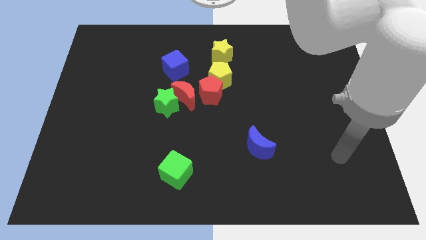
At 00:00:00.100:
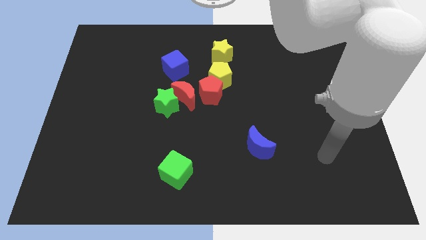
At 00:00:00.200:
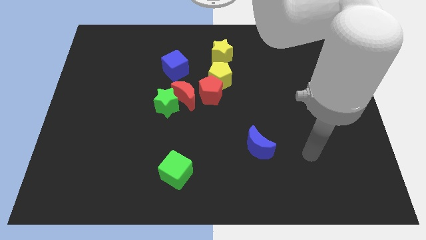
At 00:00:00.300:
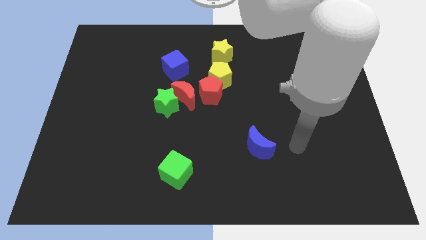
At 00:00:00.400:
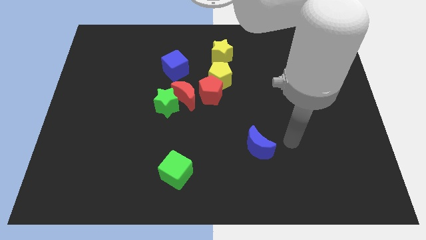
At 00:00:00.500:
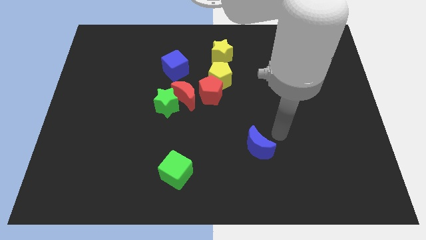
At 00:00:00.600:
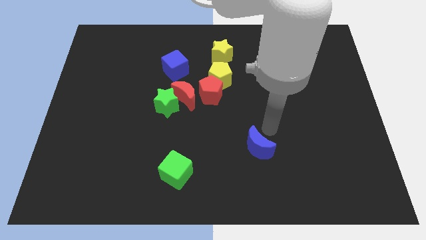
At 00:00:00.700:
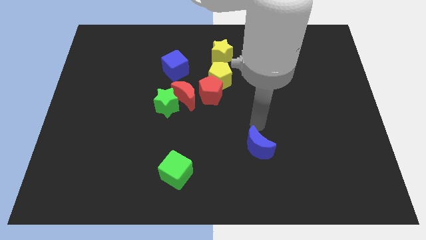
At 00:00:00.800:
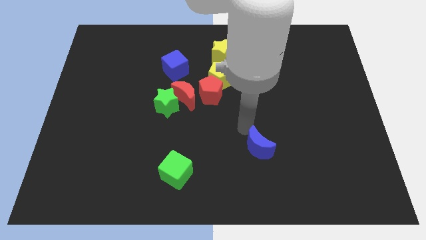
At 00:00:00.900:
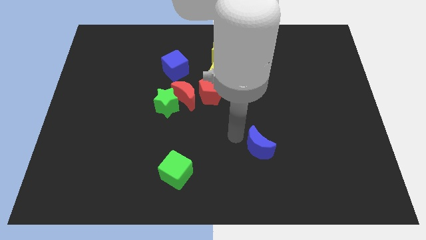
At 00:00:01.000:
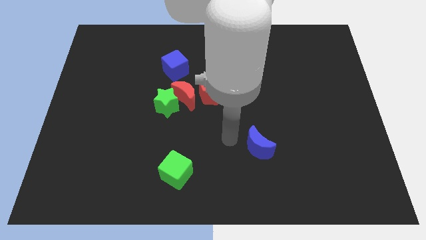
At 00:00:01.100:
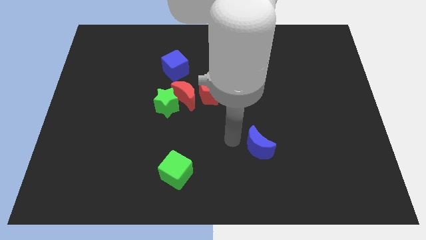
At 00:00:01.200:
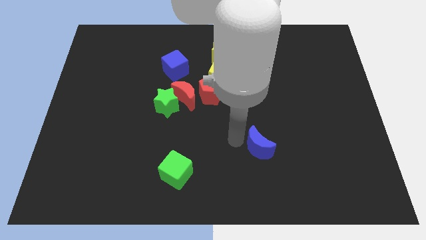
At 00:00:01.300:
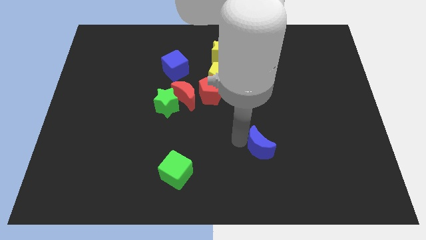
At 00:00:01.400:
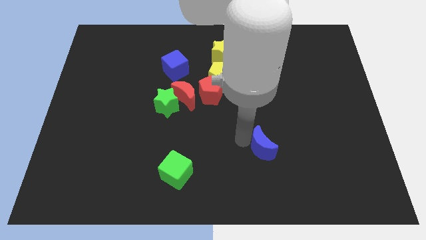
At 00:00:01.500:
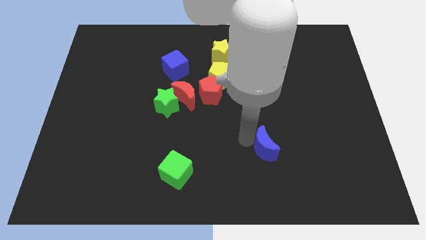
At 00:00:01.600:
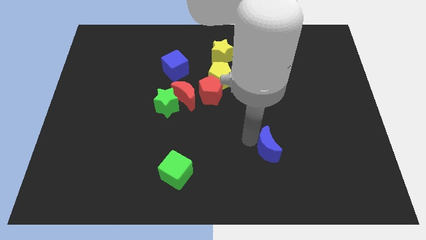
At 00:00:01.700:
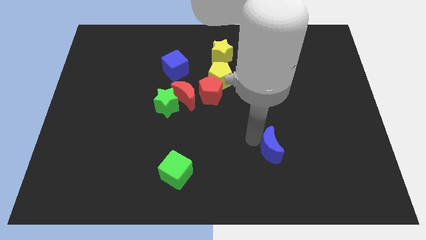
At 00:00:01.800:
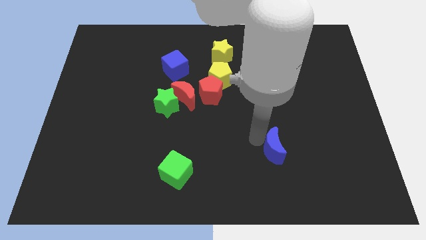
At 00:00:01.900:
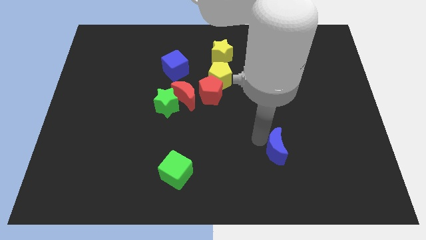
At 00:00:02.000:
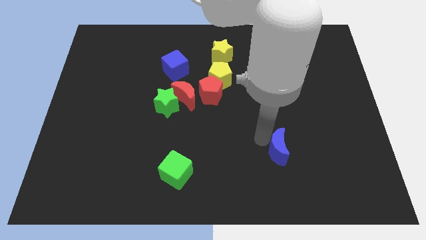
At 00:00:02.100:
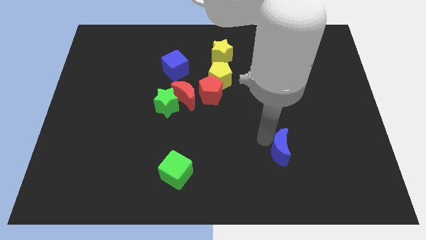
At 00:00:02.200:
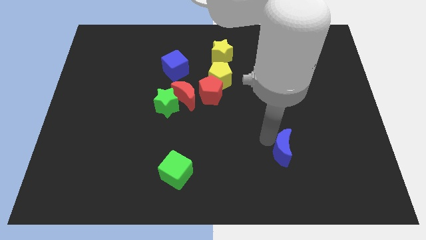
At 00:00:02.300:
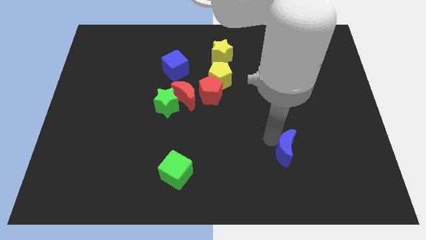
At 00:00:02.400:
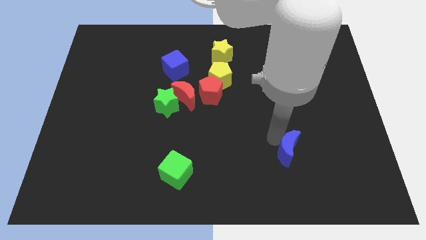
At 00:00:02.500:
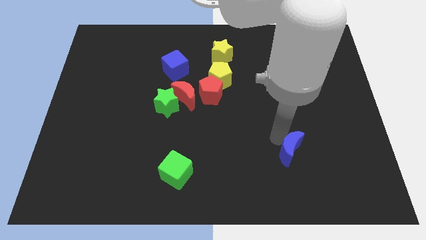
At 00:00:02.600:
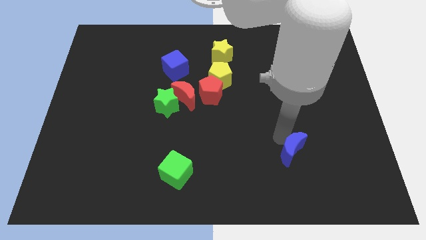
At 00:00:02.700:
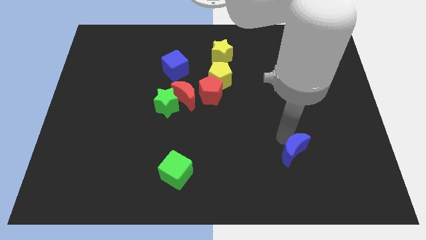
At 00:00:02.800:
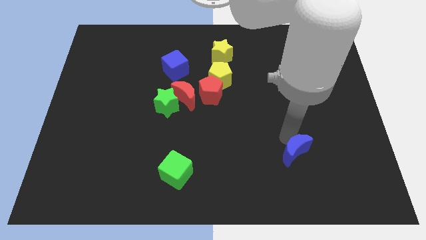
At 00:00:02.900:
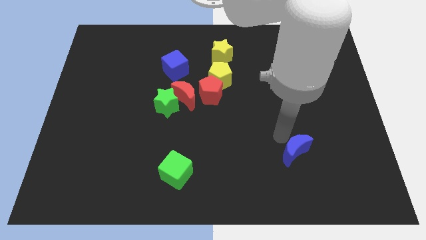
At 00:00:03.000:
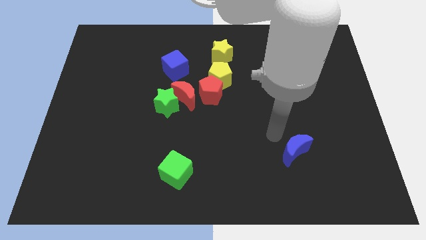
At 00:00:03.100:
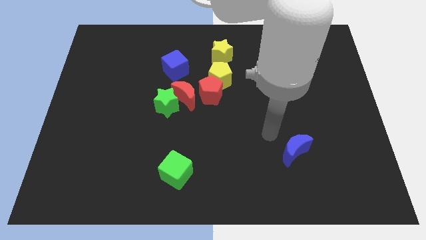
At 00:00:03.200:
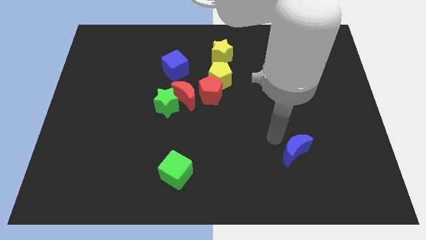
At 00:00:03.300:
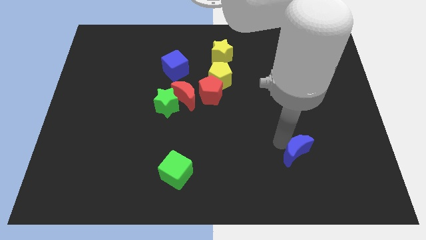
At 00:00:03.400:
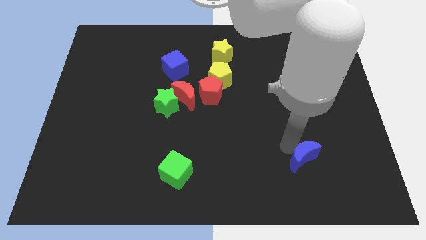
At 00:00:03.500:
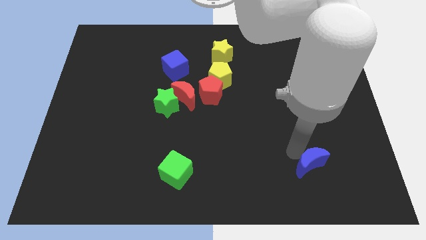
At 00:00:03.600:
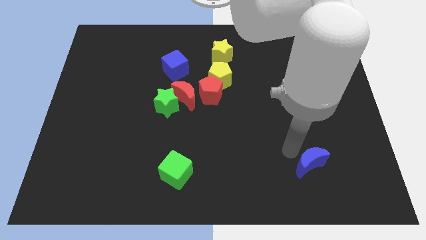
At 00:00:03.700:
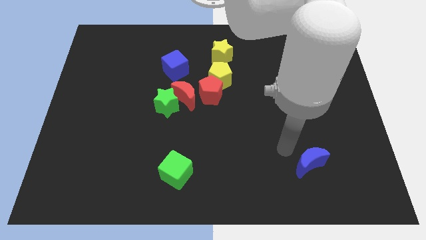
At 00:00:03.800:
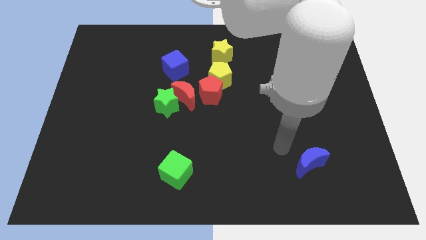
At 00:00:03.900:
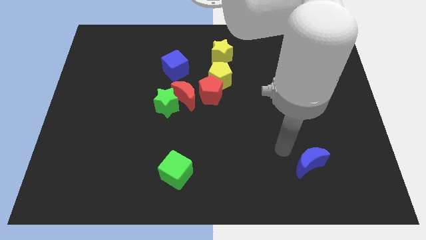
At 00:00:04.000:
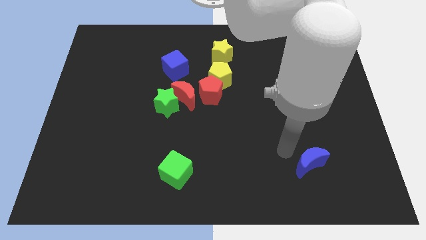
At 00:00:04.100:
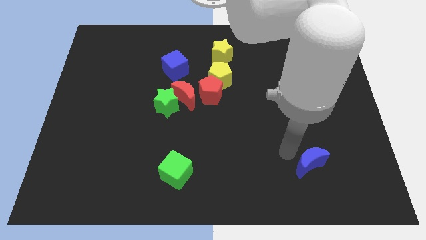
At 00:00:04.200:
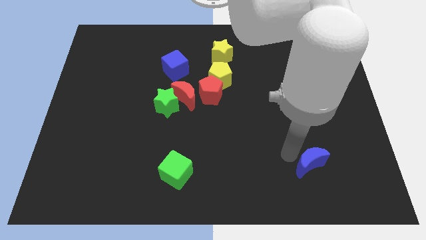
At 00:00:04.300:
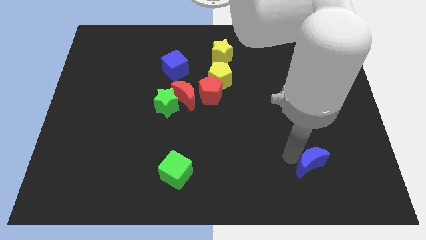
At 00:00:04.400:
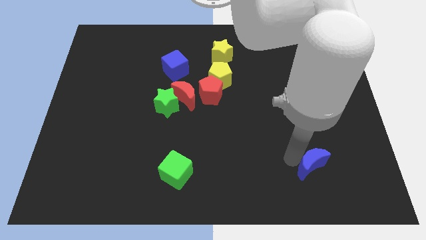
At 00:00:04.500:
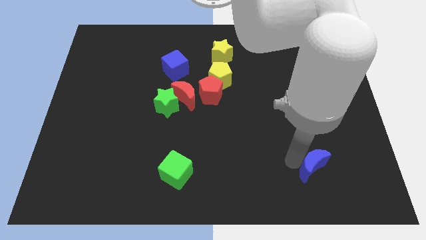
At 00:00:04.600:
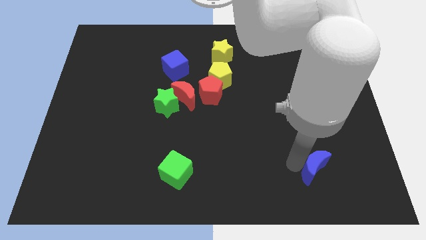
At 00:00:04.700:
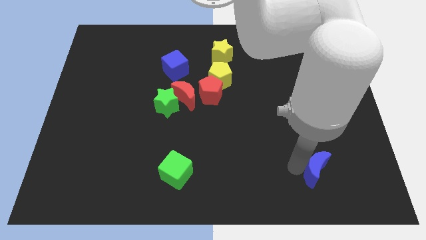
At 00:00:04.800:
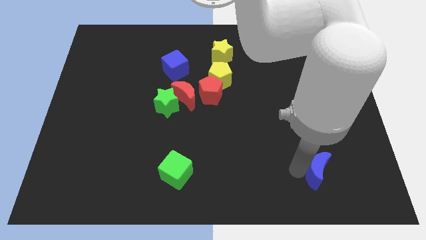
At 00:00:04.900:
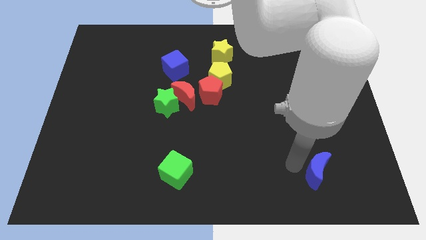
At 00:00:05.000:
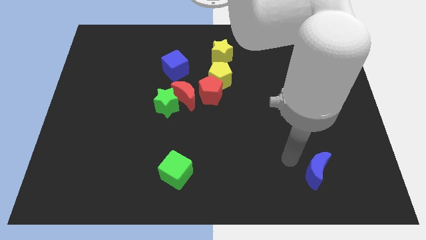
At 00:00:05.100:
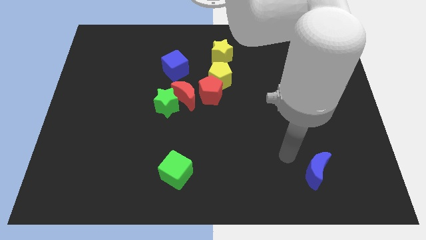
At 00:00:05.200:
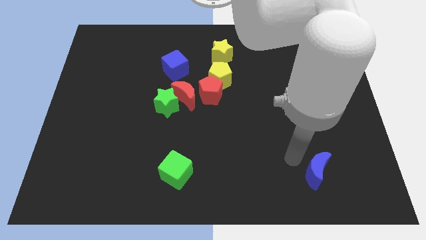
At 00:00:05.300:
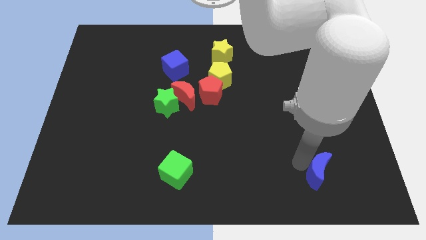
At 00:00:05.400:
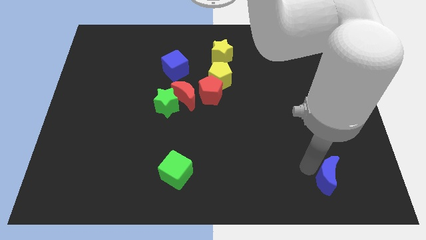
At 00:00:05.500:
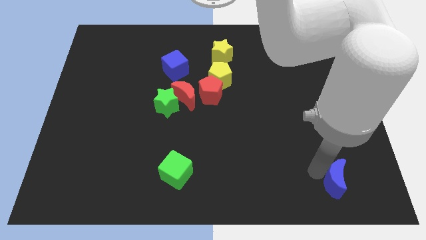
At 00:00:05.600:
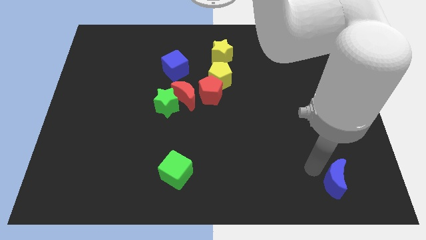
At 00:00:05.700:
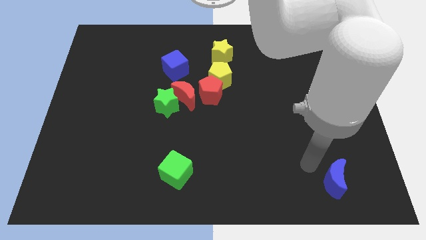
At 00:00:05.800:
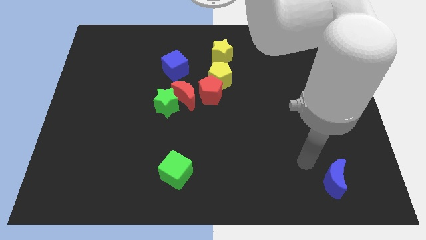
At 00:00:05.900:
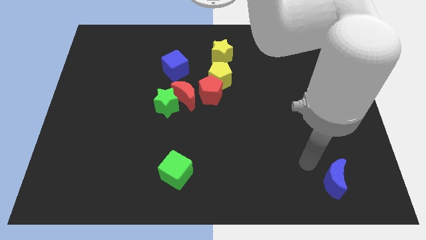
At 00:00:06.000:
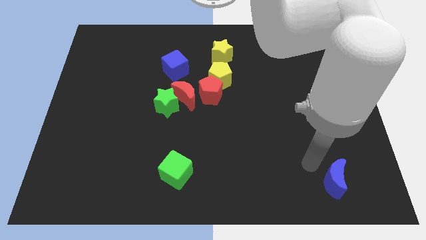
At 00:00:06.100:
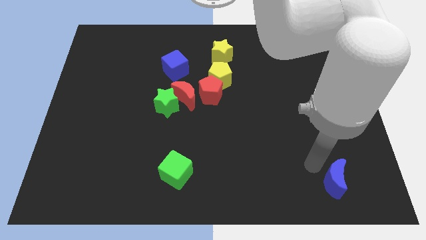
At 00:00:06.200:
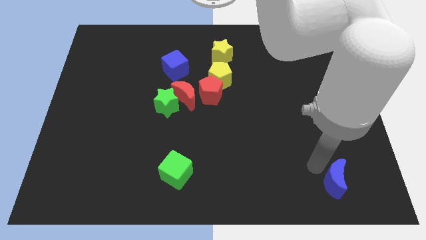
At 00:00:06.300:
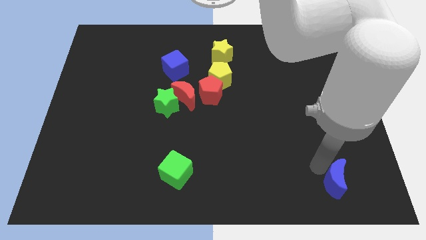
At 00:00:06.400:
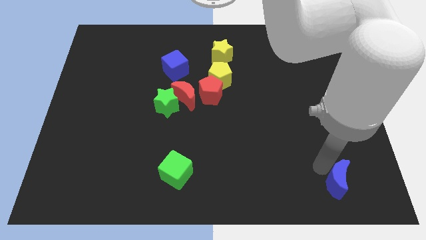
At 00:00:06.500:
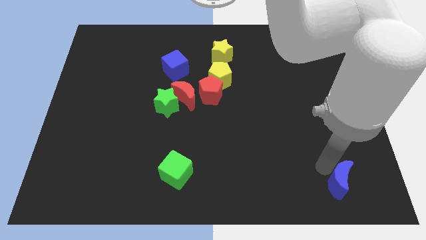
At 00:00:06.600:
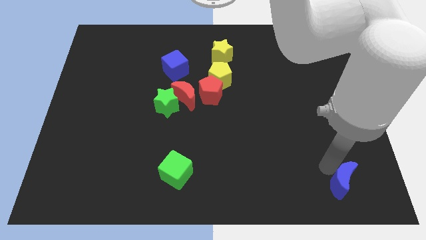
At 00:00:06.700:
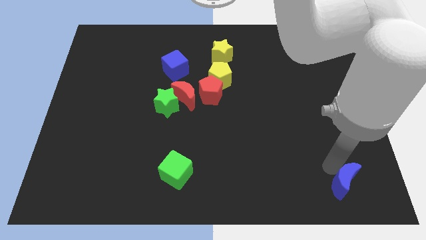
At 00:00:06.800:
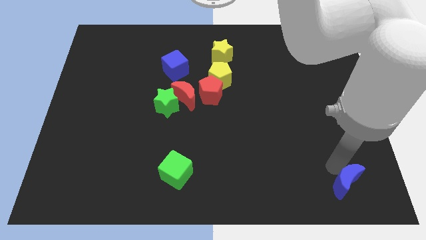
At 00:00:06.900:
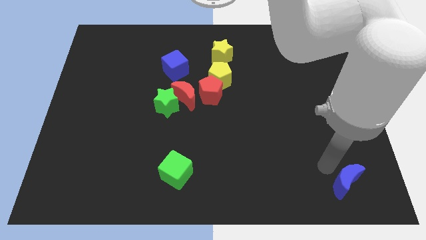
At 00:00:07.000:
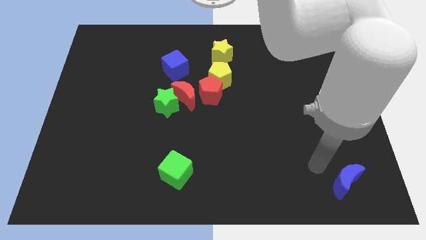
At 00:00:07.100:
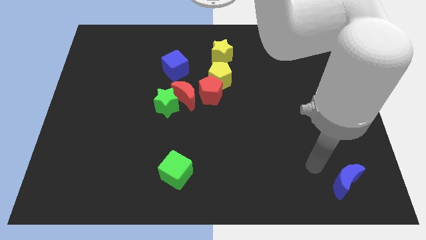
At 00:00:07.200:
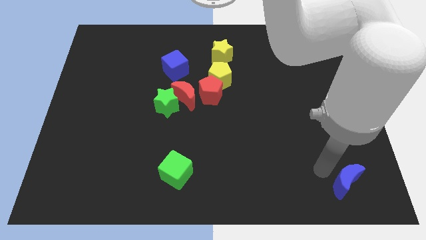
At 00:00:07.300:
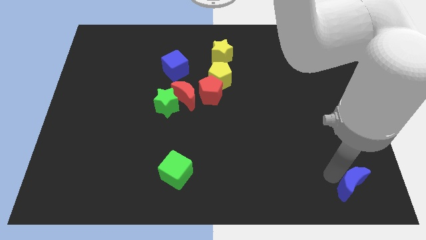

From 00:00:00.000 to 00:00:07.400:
slide the blue moon to the bottom right of the board
